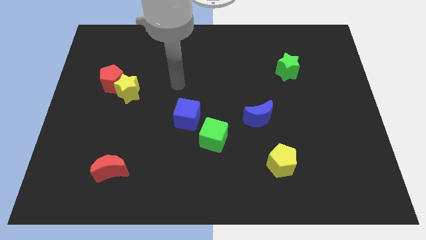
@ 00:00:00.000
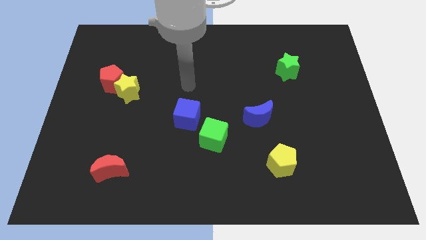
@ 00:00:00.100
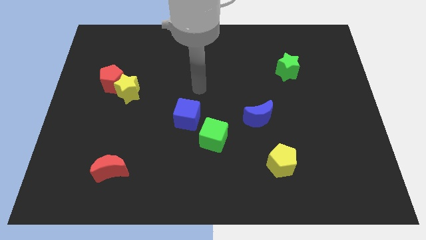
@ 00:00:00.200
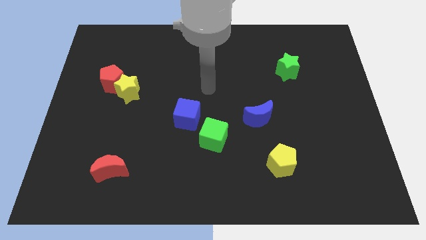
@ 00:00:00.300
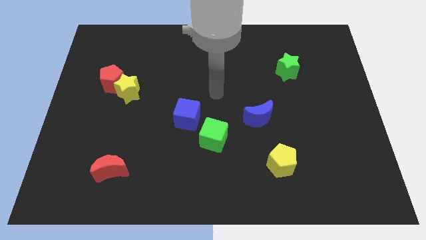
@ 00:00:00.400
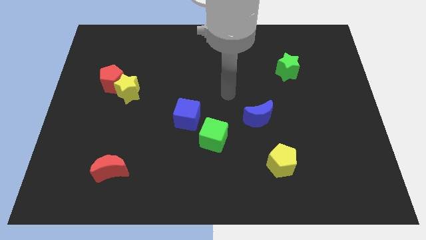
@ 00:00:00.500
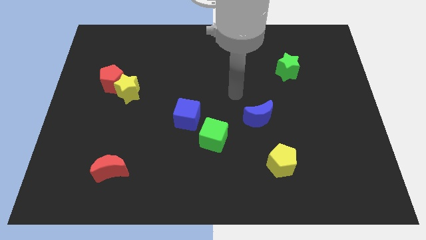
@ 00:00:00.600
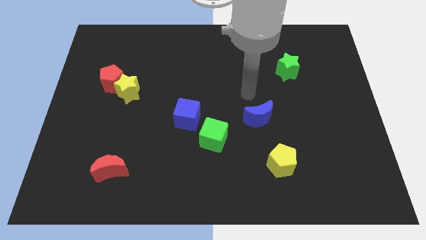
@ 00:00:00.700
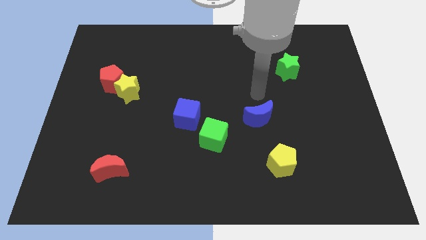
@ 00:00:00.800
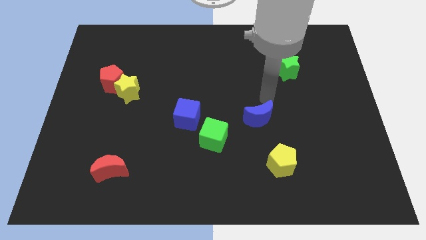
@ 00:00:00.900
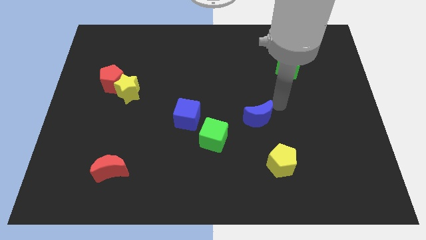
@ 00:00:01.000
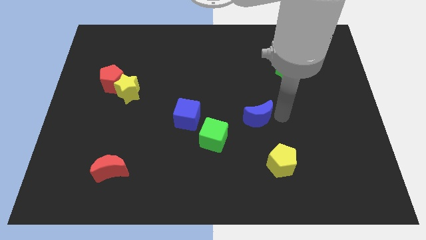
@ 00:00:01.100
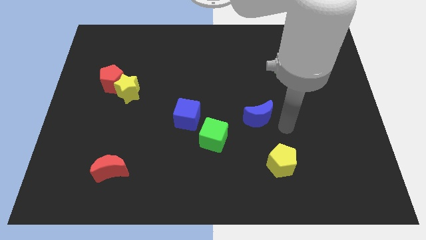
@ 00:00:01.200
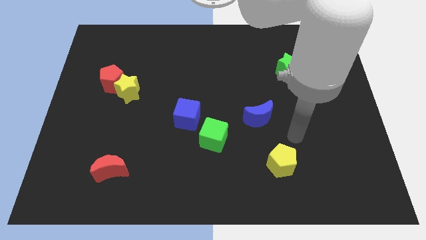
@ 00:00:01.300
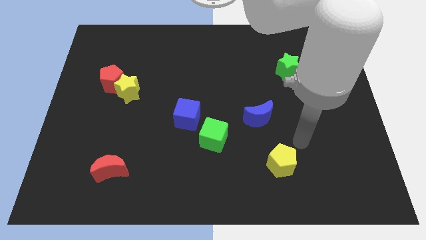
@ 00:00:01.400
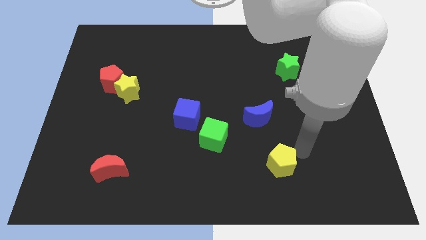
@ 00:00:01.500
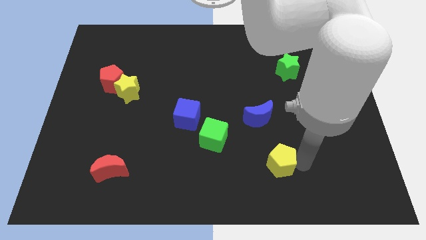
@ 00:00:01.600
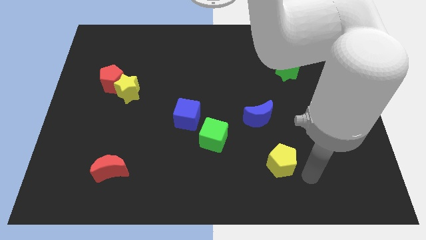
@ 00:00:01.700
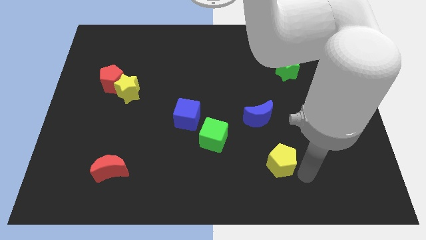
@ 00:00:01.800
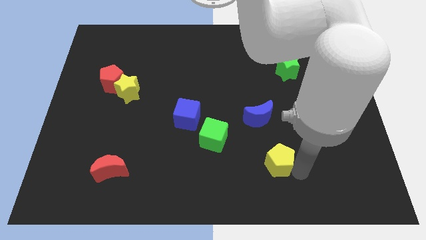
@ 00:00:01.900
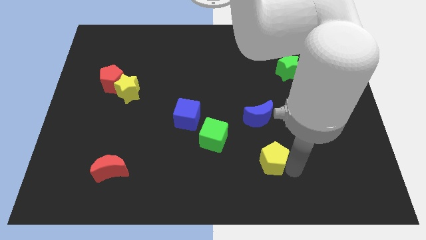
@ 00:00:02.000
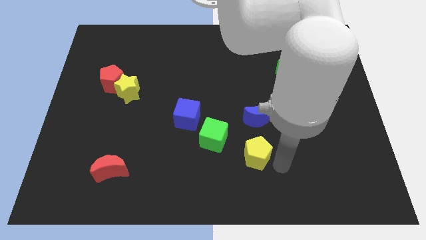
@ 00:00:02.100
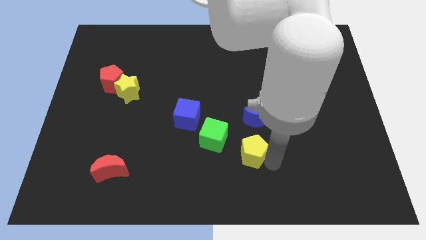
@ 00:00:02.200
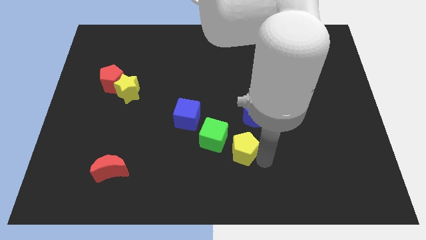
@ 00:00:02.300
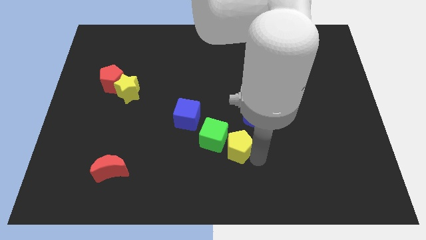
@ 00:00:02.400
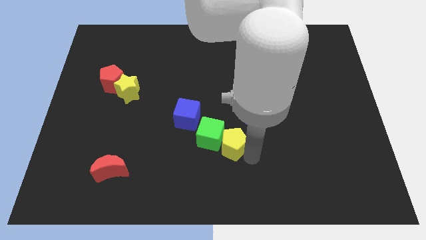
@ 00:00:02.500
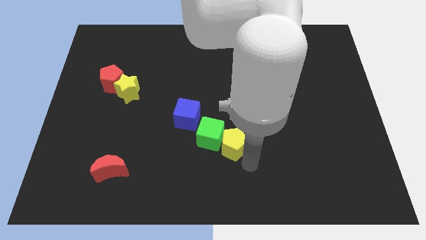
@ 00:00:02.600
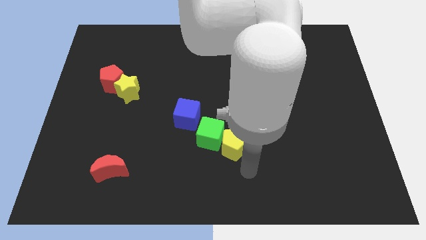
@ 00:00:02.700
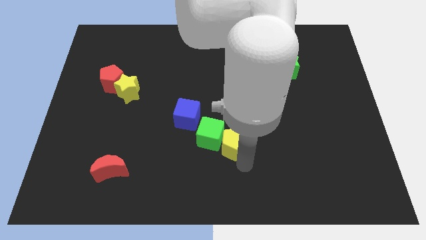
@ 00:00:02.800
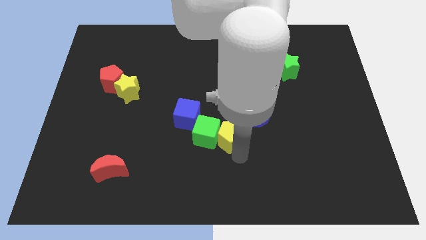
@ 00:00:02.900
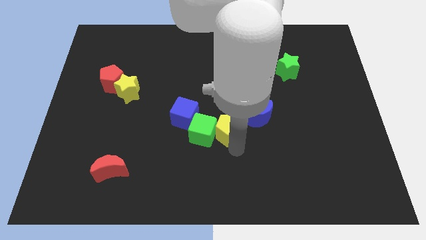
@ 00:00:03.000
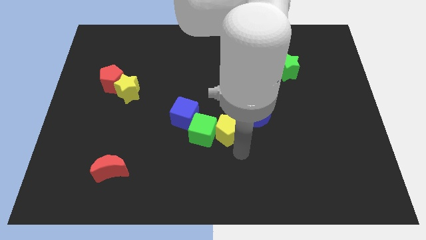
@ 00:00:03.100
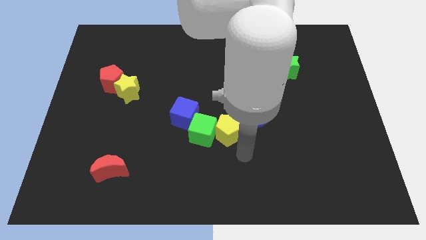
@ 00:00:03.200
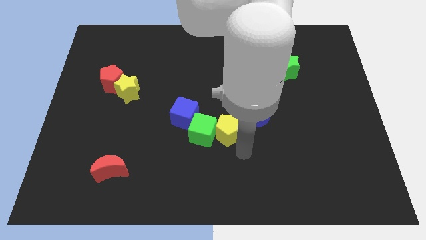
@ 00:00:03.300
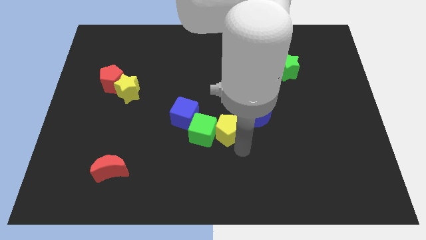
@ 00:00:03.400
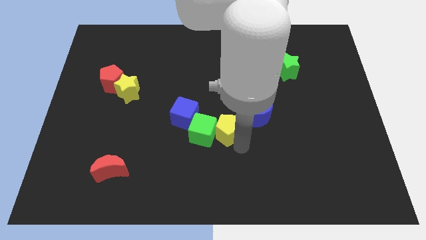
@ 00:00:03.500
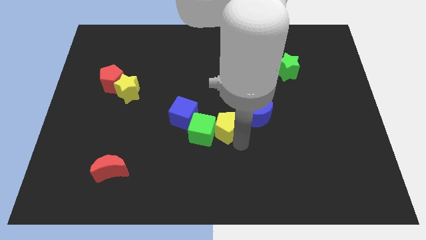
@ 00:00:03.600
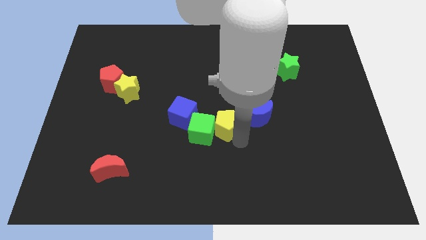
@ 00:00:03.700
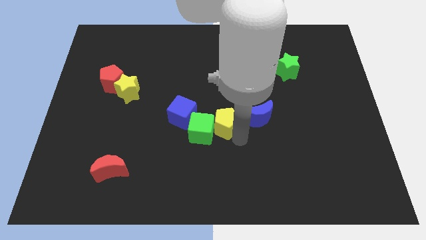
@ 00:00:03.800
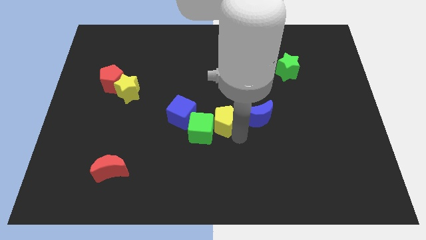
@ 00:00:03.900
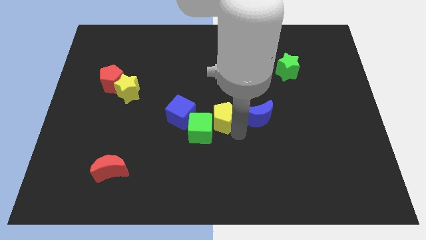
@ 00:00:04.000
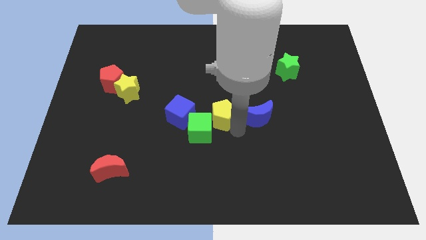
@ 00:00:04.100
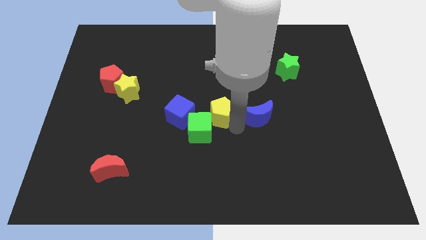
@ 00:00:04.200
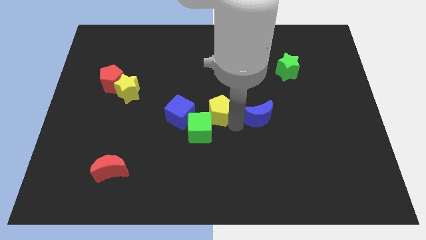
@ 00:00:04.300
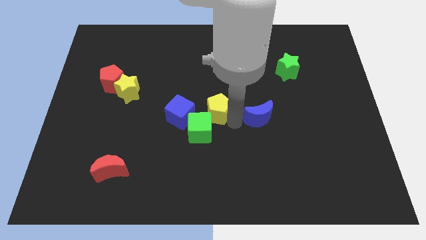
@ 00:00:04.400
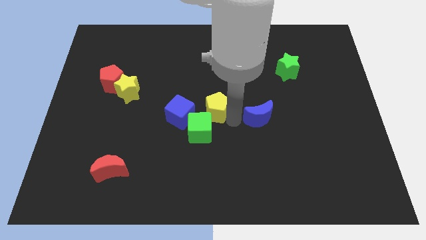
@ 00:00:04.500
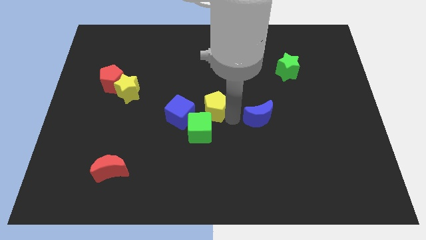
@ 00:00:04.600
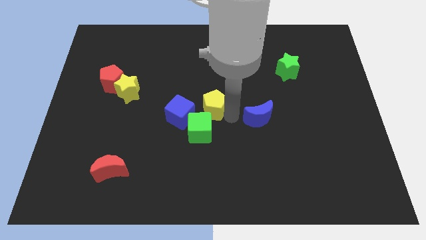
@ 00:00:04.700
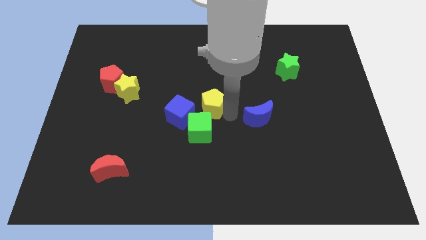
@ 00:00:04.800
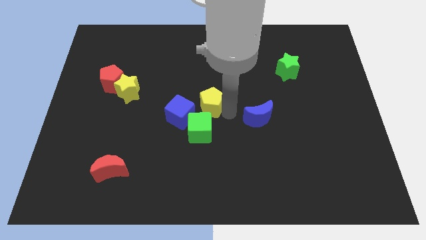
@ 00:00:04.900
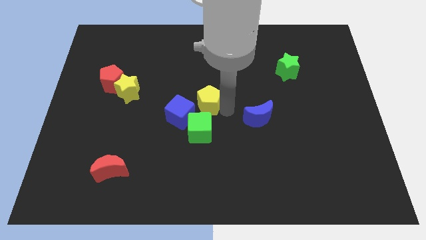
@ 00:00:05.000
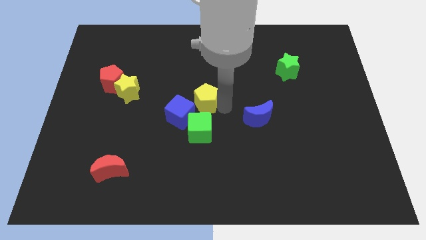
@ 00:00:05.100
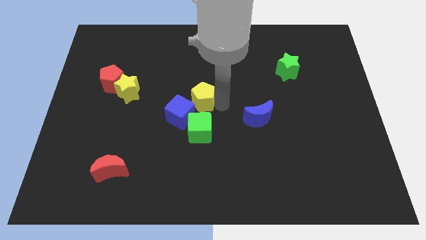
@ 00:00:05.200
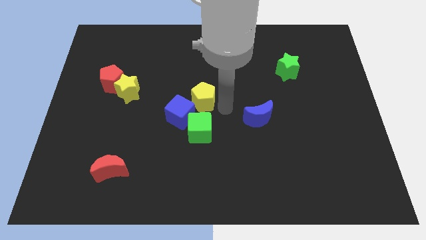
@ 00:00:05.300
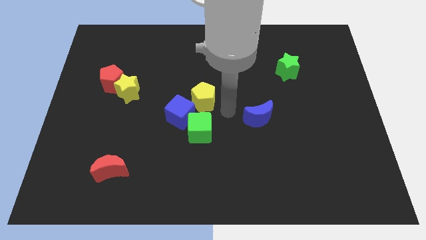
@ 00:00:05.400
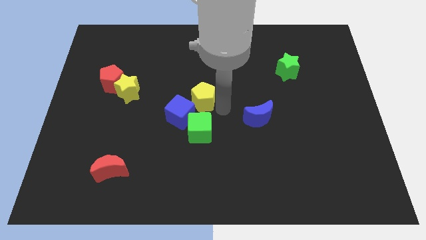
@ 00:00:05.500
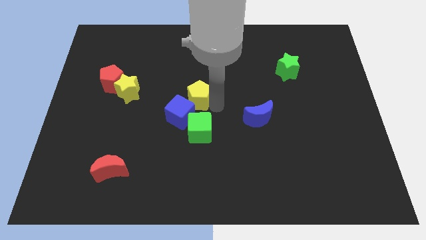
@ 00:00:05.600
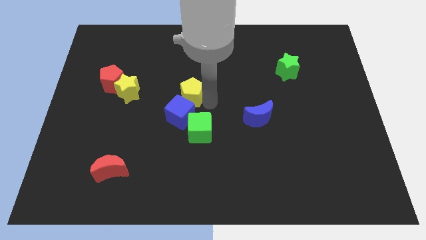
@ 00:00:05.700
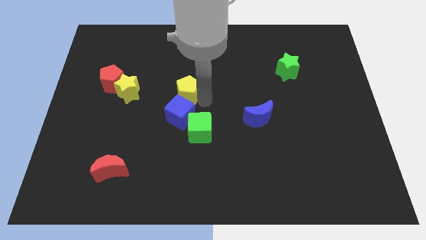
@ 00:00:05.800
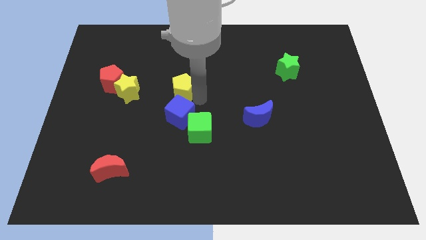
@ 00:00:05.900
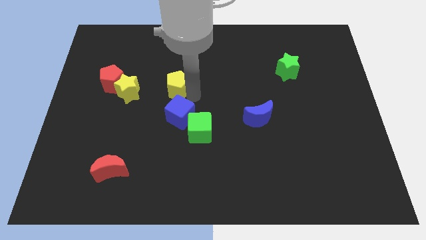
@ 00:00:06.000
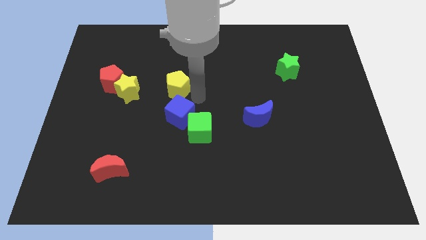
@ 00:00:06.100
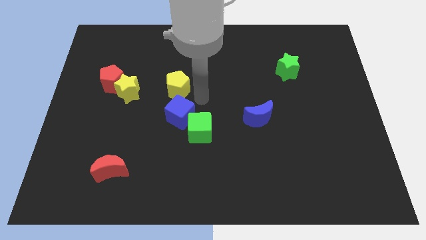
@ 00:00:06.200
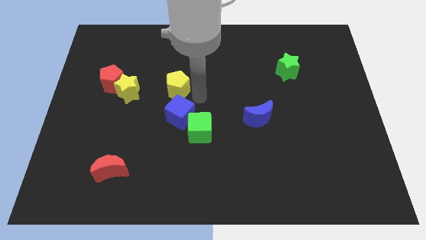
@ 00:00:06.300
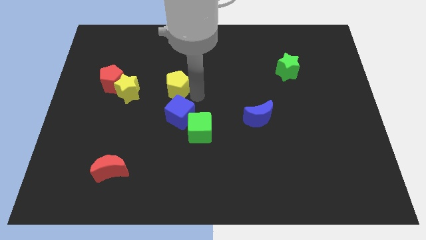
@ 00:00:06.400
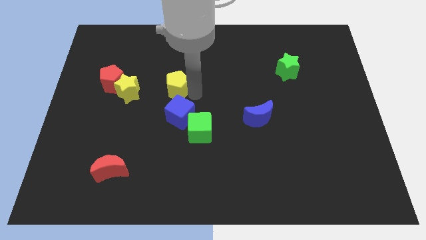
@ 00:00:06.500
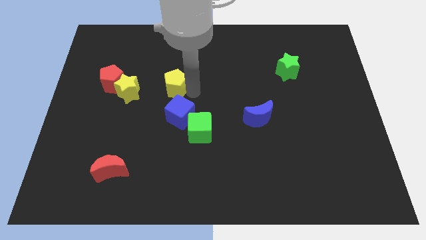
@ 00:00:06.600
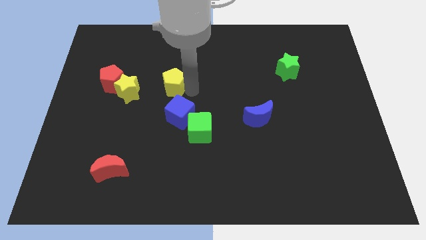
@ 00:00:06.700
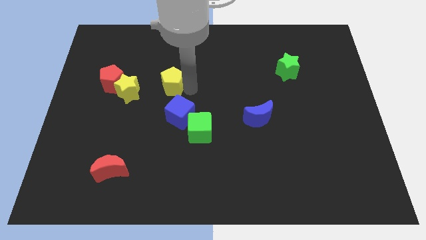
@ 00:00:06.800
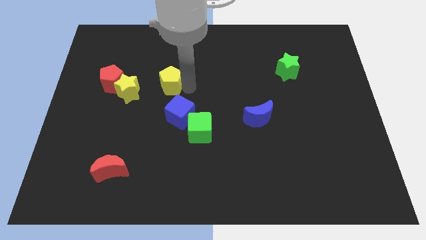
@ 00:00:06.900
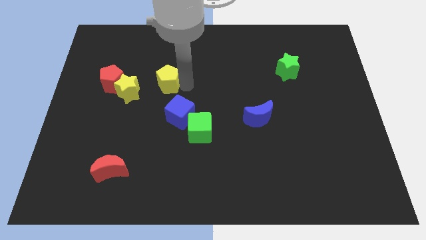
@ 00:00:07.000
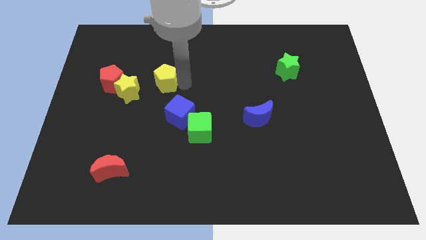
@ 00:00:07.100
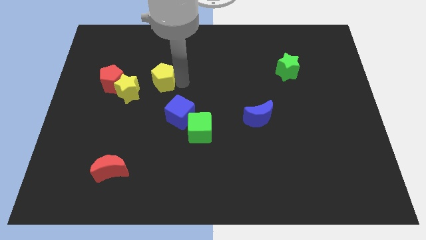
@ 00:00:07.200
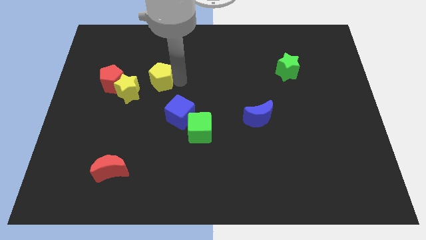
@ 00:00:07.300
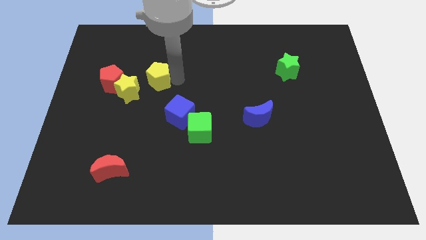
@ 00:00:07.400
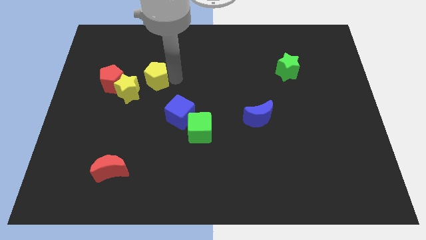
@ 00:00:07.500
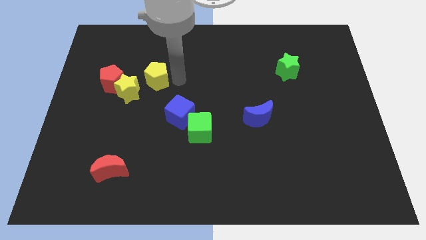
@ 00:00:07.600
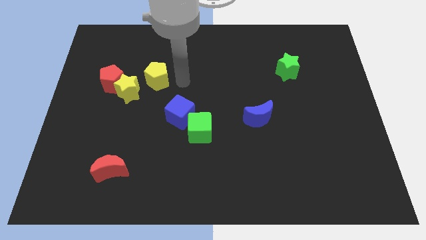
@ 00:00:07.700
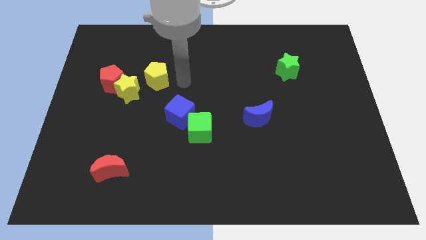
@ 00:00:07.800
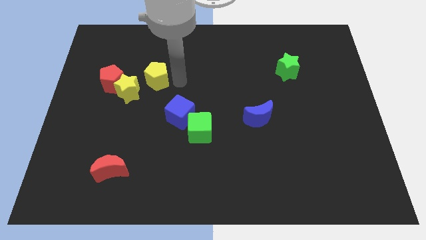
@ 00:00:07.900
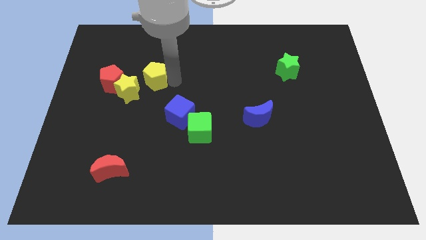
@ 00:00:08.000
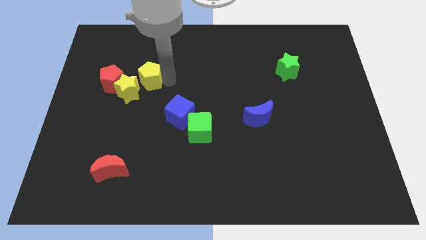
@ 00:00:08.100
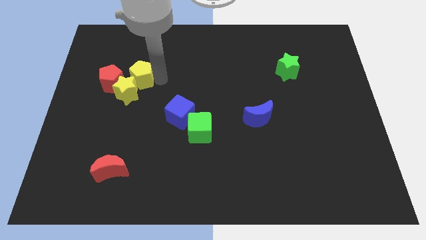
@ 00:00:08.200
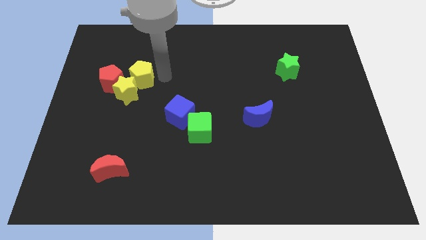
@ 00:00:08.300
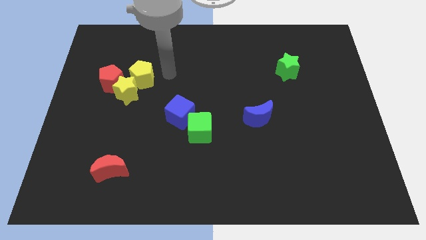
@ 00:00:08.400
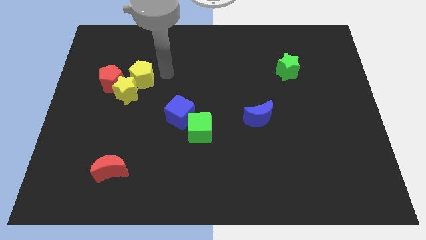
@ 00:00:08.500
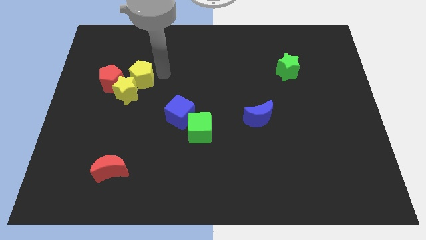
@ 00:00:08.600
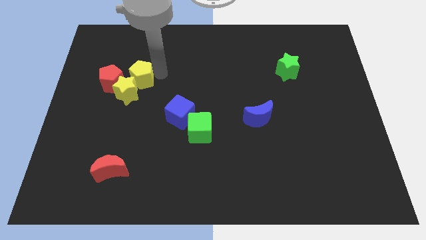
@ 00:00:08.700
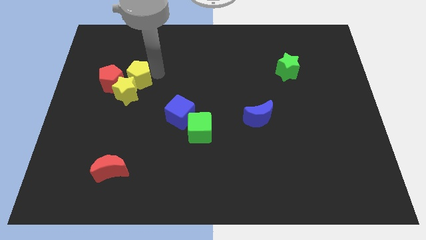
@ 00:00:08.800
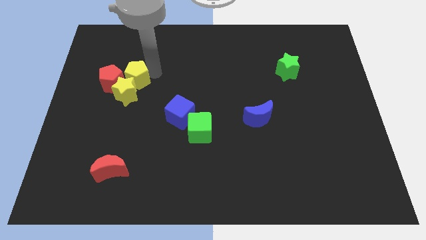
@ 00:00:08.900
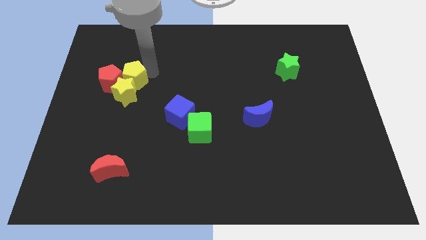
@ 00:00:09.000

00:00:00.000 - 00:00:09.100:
push the yellow pentagon to the red pentagon
